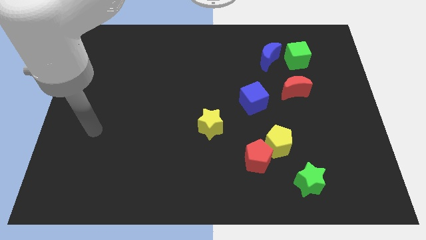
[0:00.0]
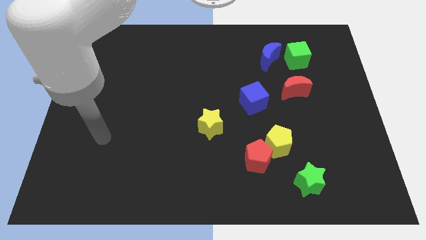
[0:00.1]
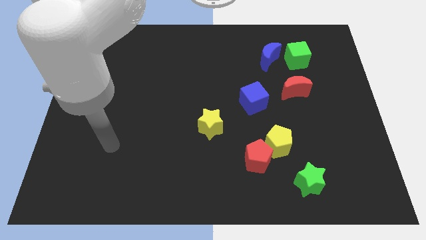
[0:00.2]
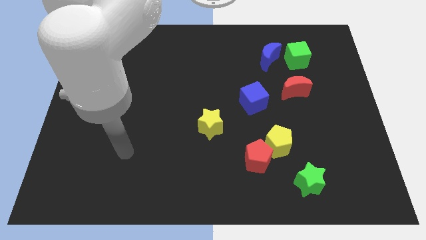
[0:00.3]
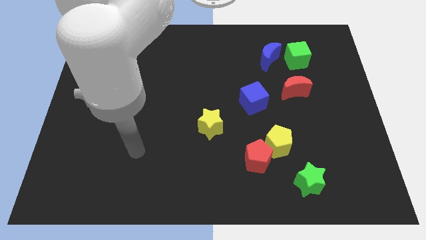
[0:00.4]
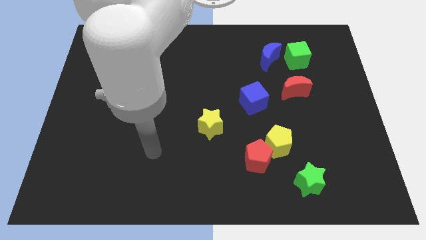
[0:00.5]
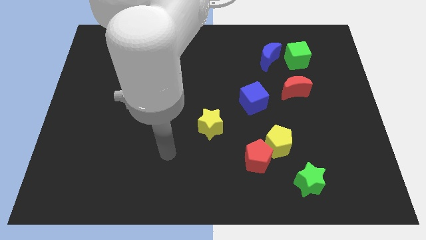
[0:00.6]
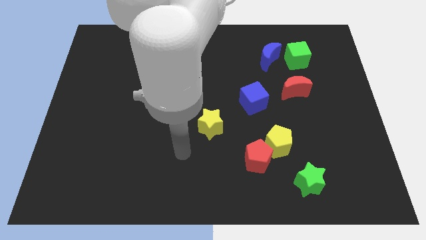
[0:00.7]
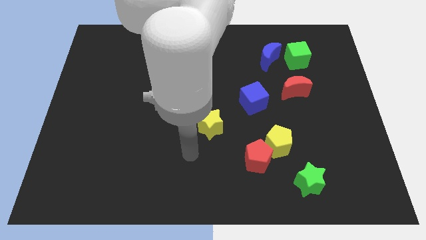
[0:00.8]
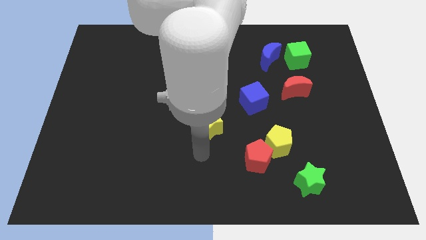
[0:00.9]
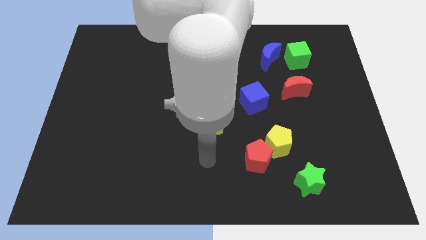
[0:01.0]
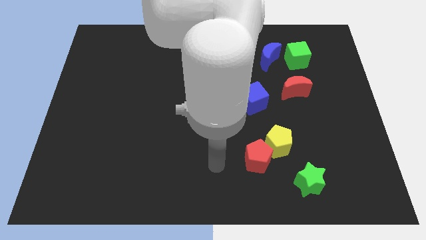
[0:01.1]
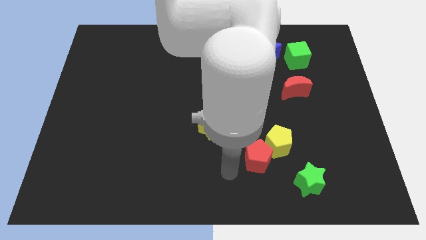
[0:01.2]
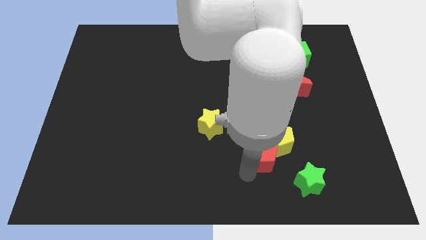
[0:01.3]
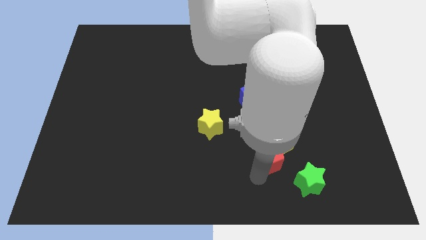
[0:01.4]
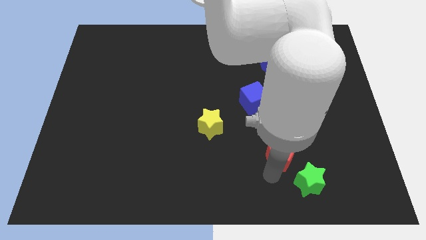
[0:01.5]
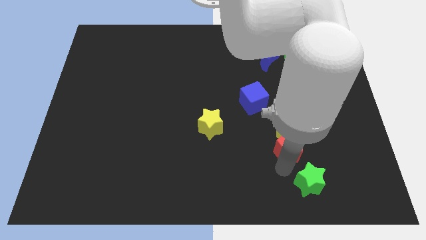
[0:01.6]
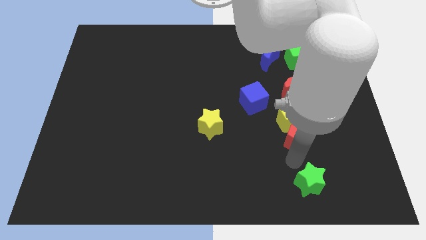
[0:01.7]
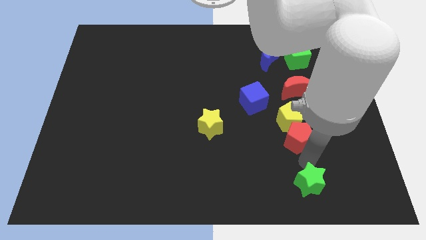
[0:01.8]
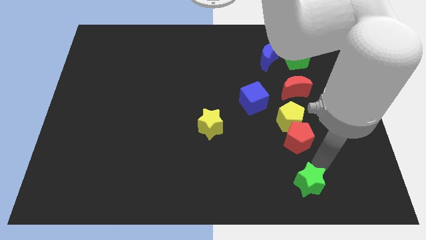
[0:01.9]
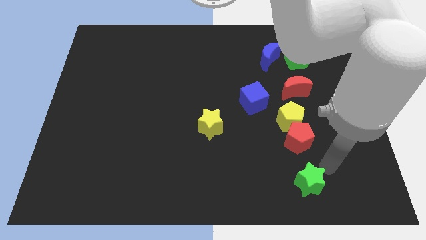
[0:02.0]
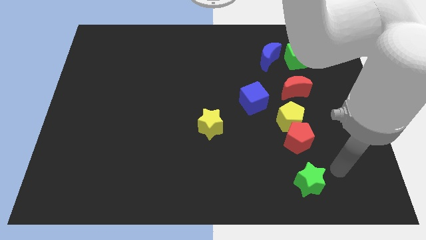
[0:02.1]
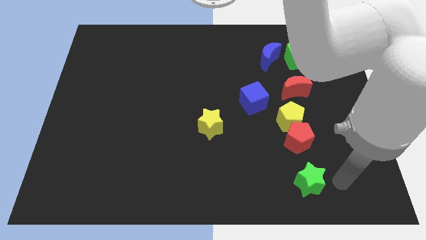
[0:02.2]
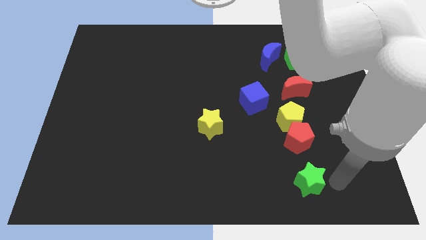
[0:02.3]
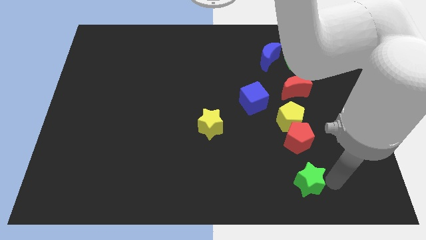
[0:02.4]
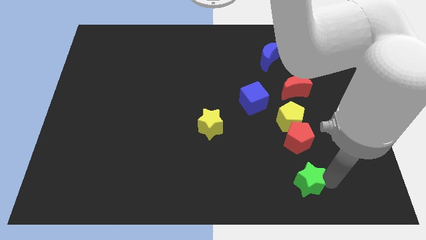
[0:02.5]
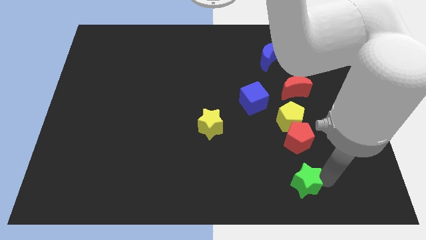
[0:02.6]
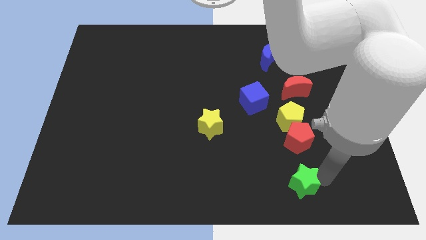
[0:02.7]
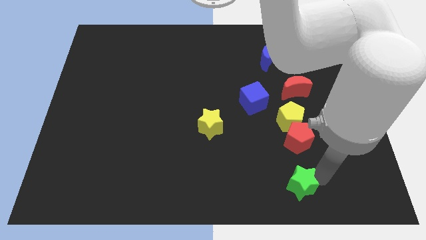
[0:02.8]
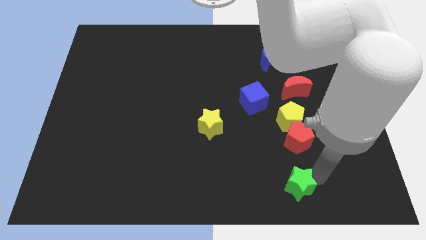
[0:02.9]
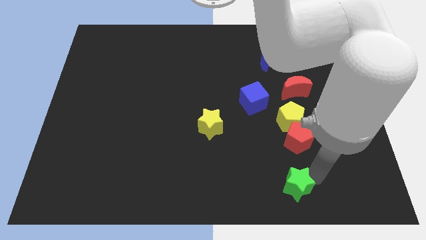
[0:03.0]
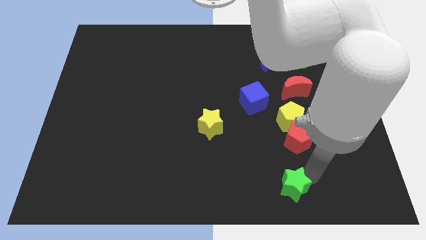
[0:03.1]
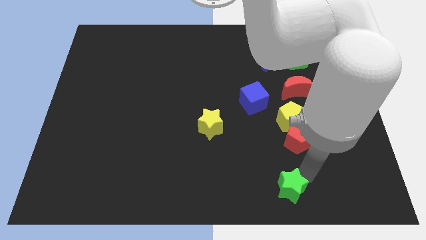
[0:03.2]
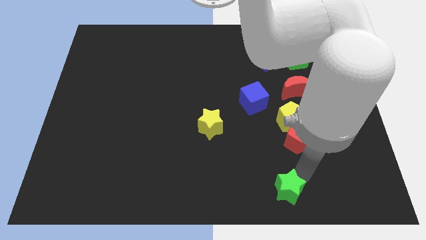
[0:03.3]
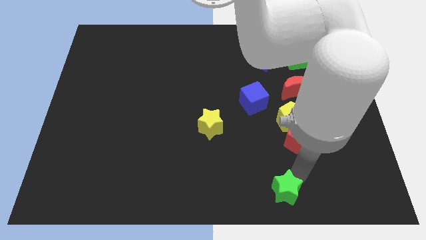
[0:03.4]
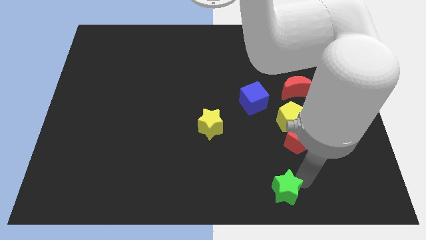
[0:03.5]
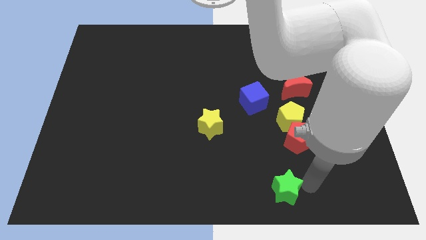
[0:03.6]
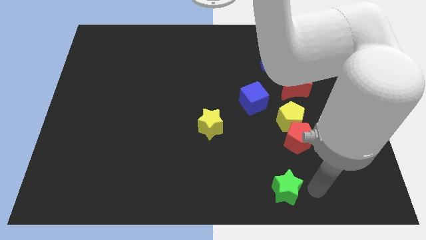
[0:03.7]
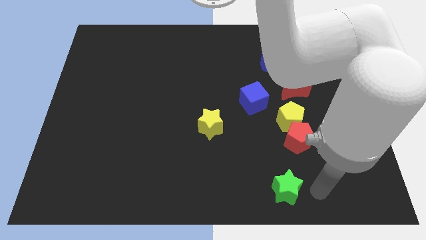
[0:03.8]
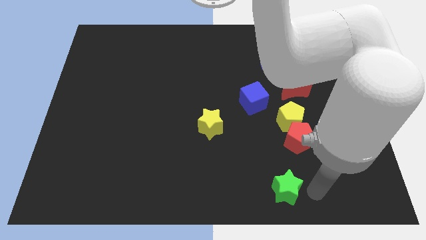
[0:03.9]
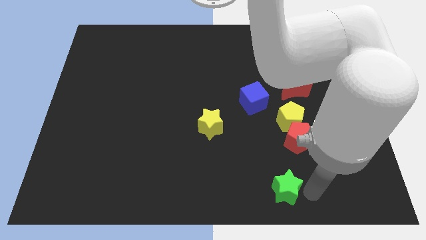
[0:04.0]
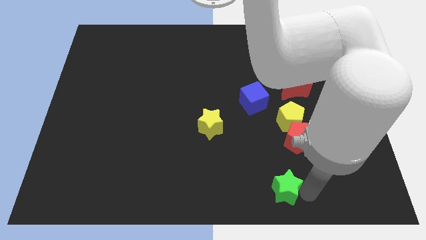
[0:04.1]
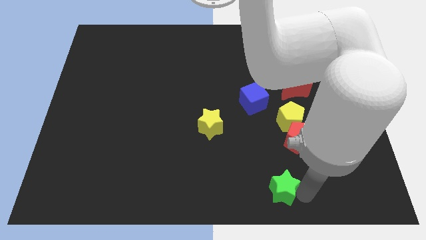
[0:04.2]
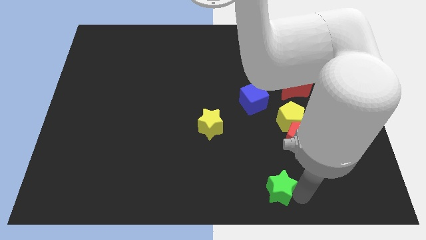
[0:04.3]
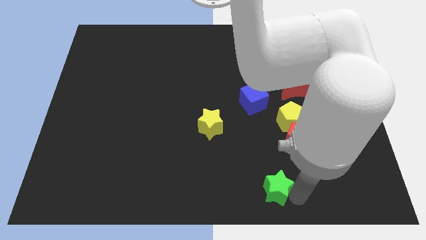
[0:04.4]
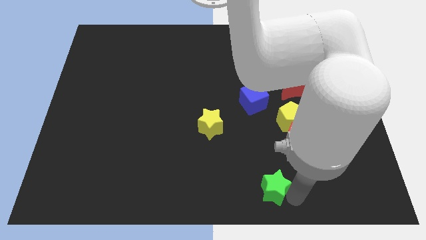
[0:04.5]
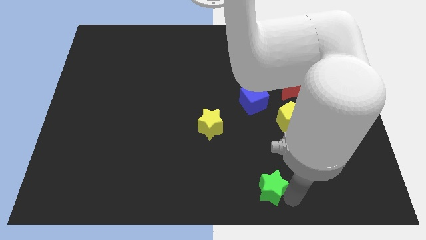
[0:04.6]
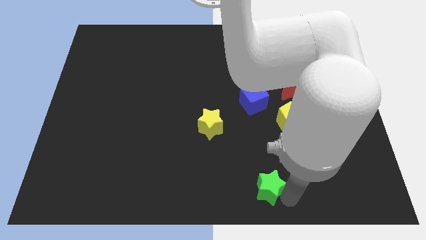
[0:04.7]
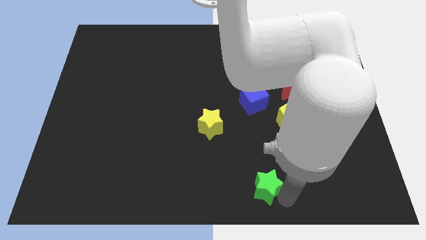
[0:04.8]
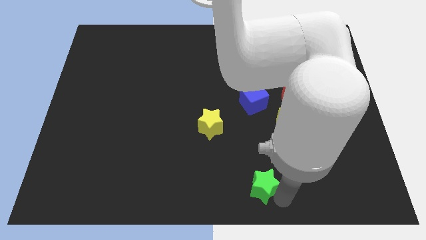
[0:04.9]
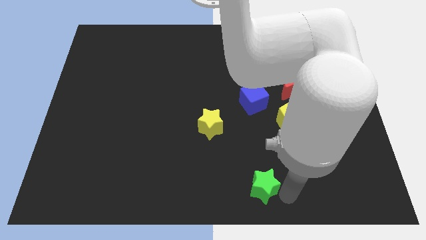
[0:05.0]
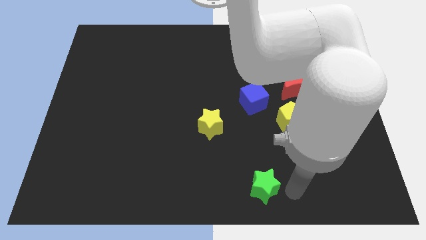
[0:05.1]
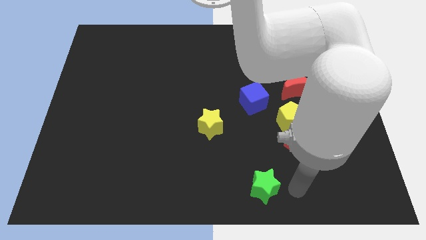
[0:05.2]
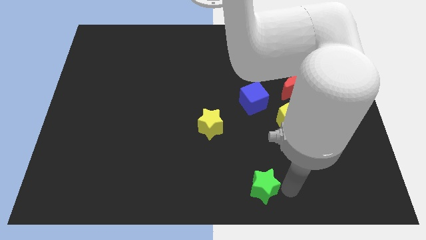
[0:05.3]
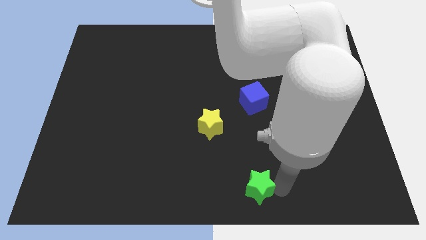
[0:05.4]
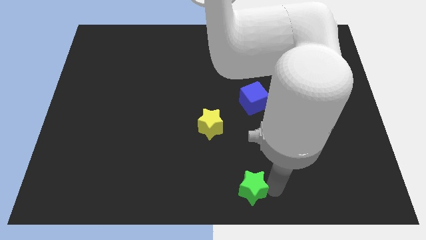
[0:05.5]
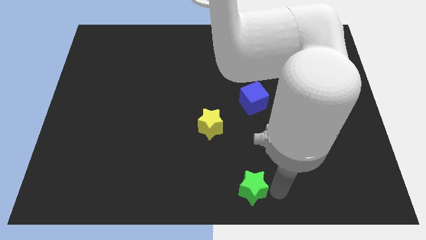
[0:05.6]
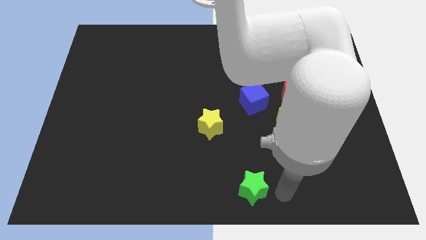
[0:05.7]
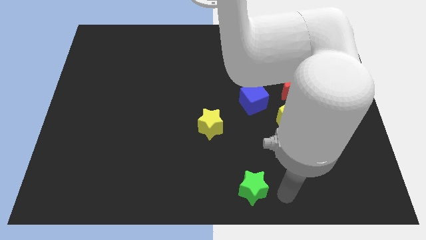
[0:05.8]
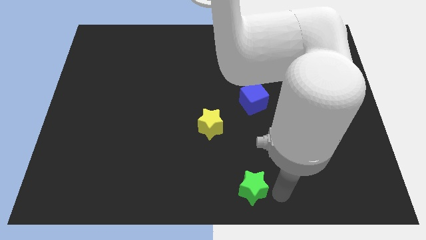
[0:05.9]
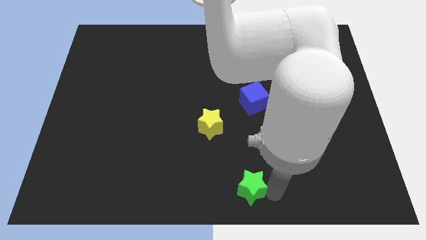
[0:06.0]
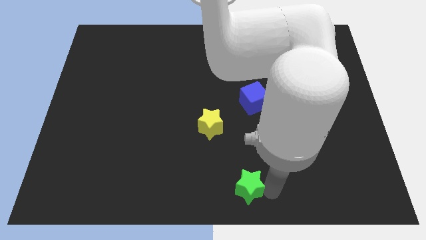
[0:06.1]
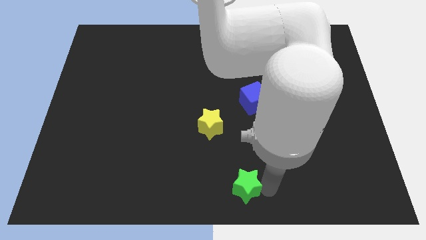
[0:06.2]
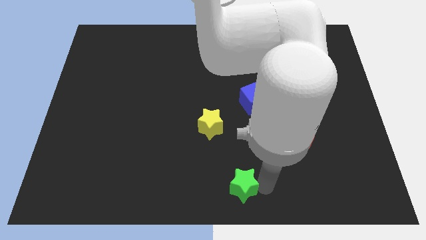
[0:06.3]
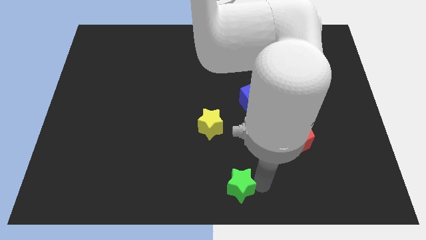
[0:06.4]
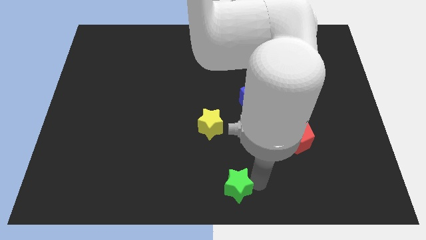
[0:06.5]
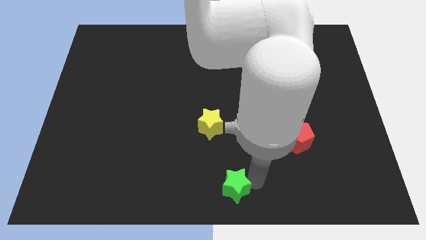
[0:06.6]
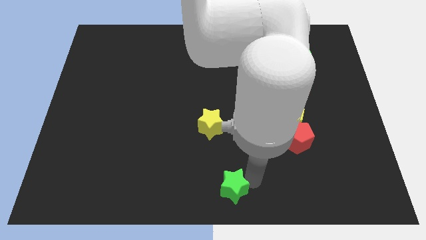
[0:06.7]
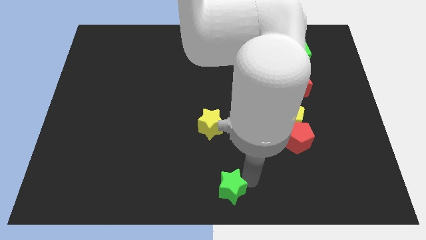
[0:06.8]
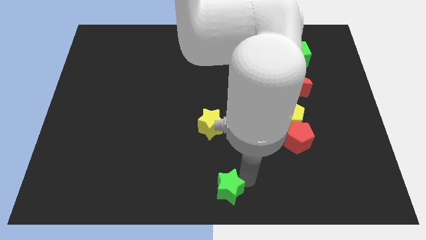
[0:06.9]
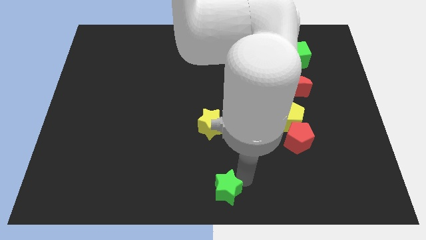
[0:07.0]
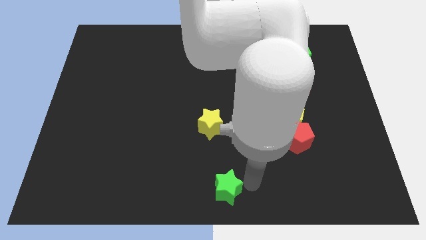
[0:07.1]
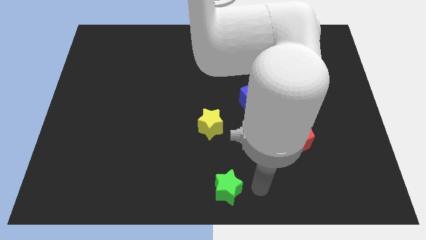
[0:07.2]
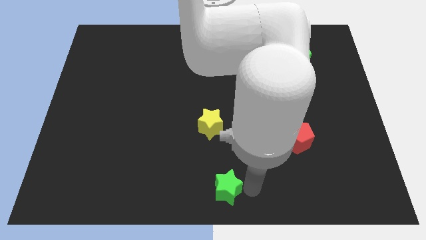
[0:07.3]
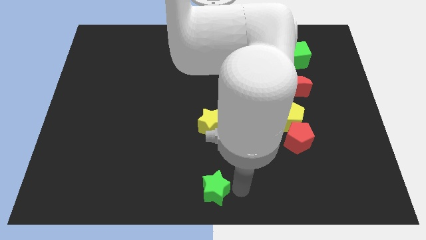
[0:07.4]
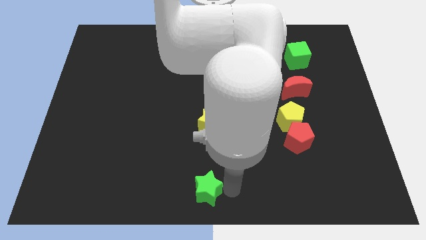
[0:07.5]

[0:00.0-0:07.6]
slide the green star to the left

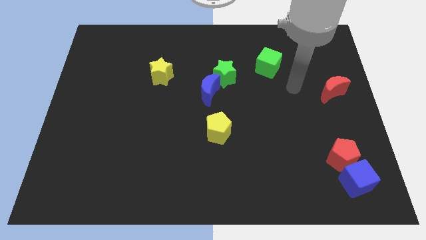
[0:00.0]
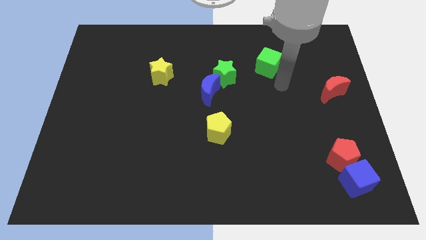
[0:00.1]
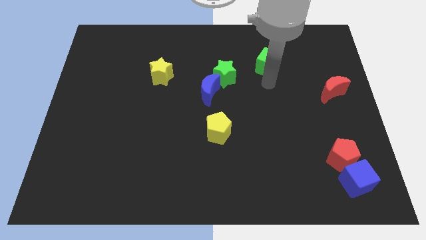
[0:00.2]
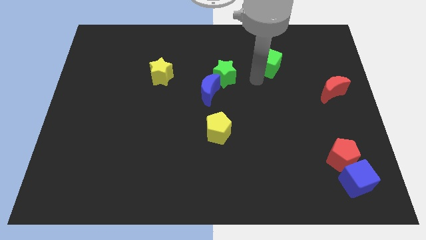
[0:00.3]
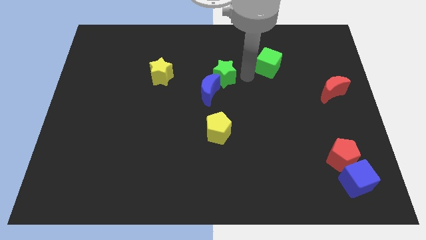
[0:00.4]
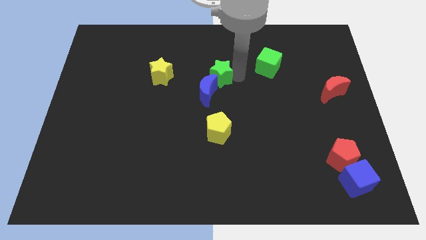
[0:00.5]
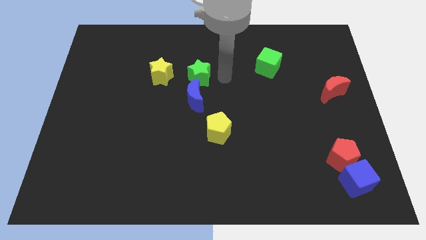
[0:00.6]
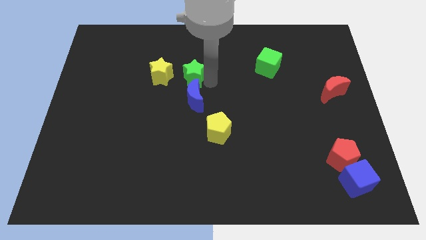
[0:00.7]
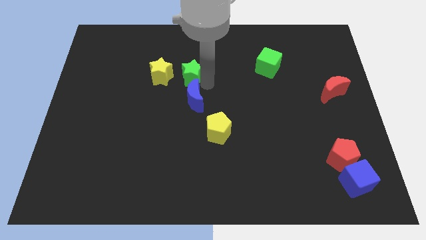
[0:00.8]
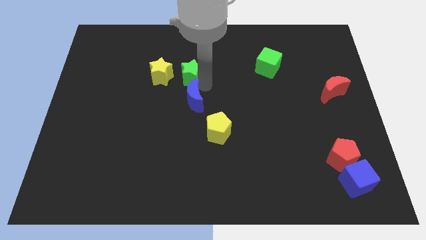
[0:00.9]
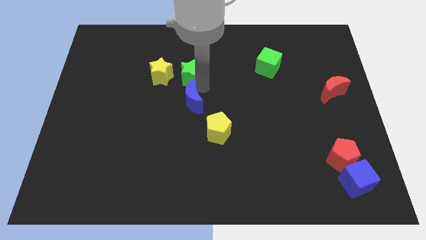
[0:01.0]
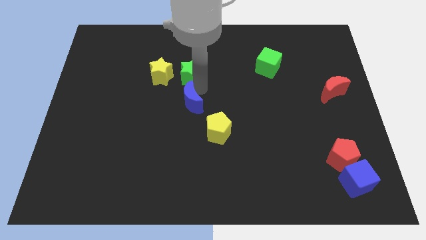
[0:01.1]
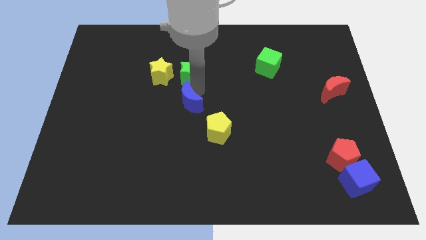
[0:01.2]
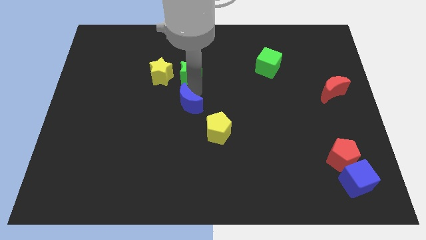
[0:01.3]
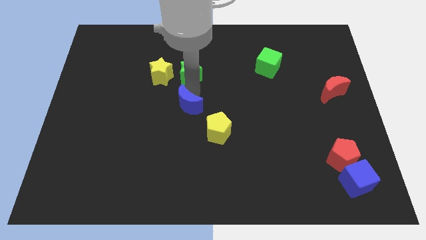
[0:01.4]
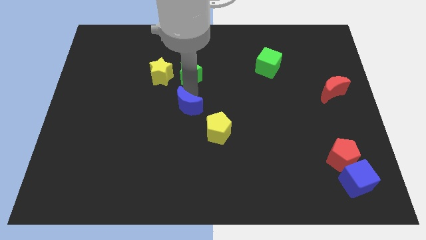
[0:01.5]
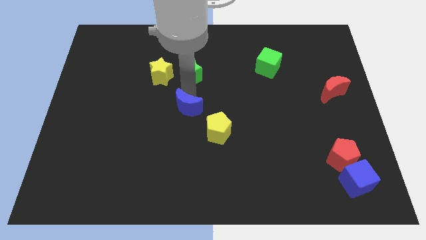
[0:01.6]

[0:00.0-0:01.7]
slide the blue moon a little down and left
